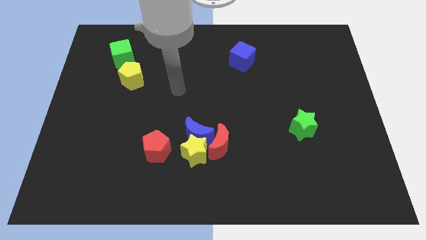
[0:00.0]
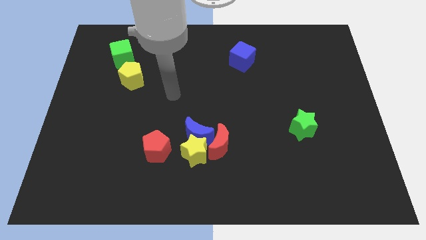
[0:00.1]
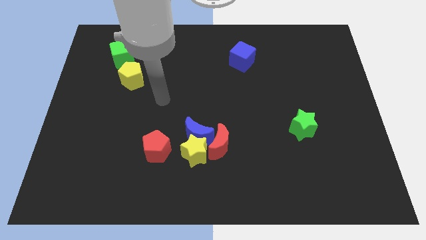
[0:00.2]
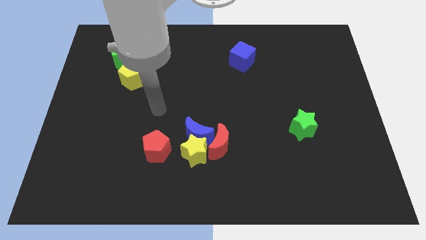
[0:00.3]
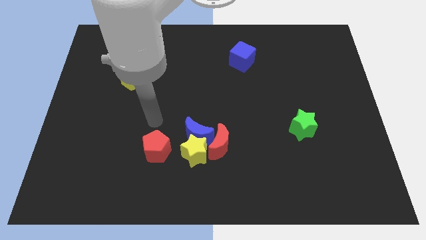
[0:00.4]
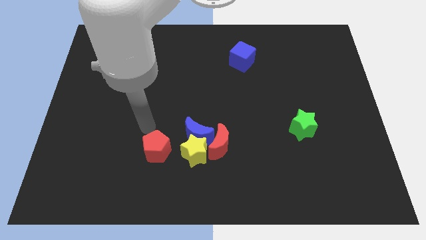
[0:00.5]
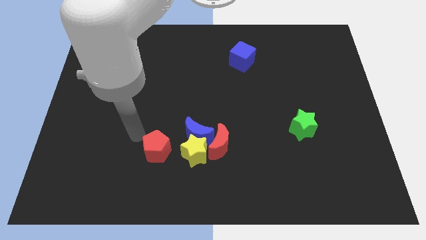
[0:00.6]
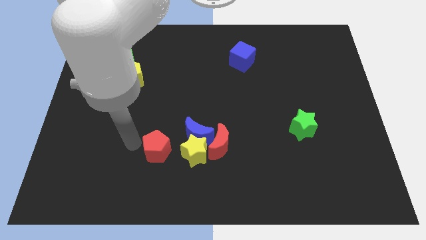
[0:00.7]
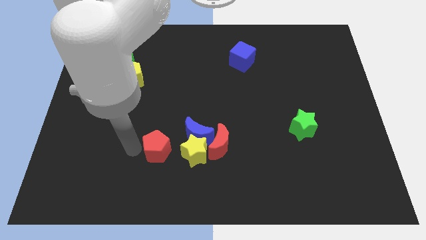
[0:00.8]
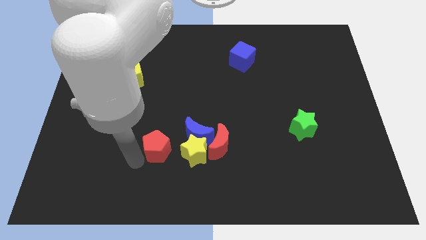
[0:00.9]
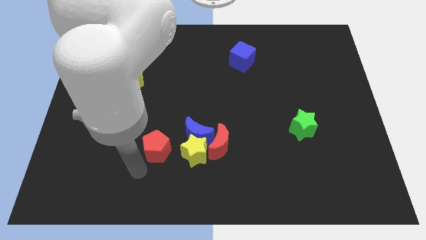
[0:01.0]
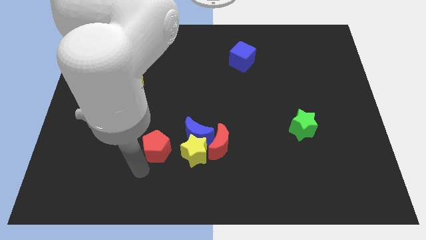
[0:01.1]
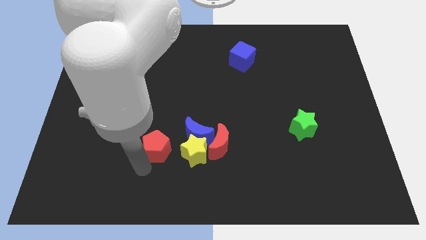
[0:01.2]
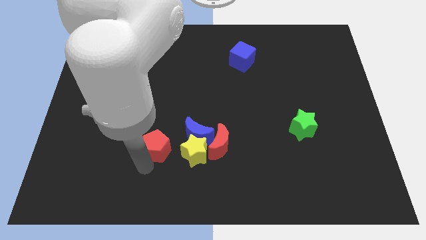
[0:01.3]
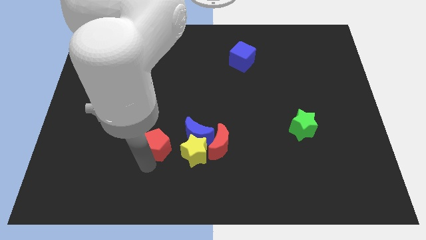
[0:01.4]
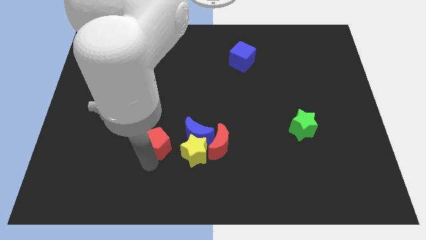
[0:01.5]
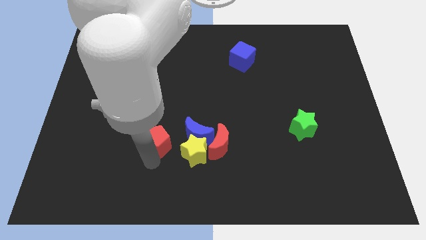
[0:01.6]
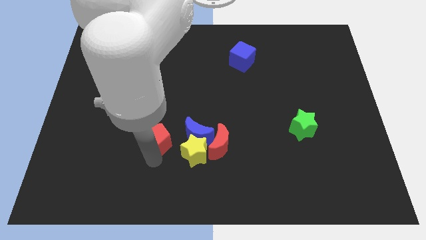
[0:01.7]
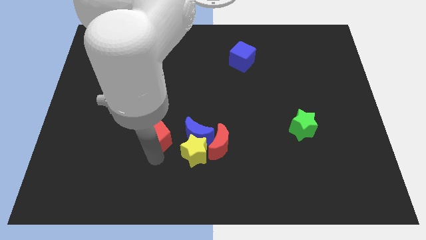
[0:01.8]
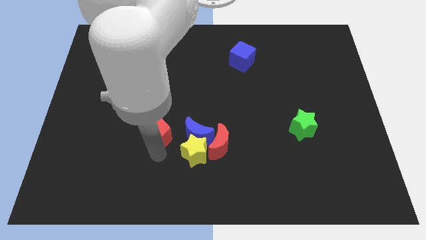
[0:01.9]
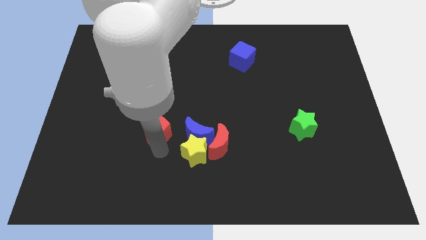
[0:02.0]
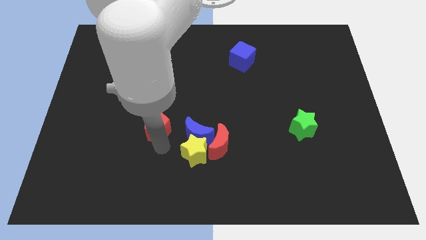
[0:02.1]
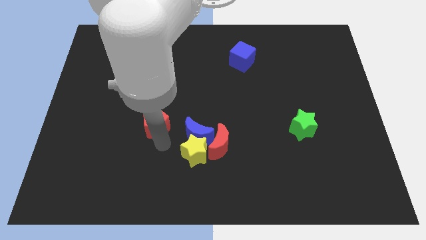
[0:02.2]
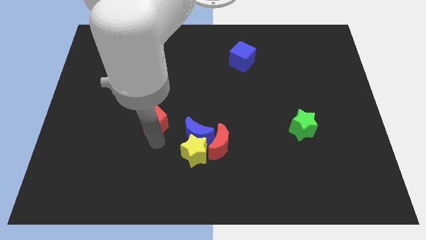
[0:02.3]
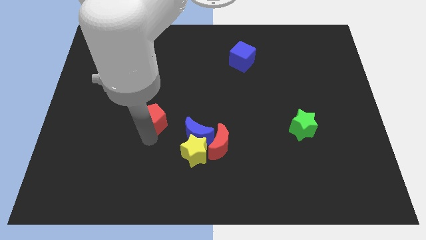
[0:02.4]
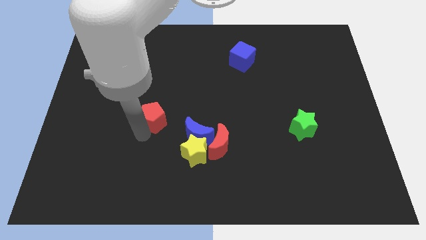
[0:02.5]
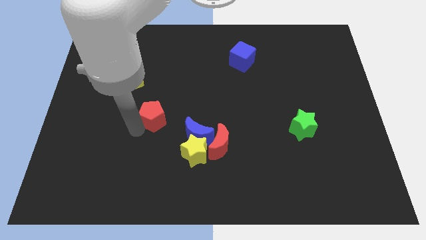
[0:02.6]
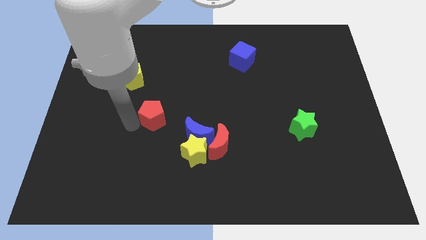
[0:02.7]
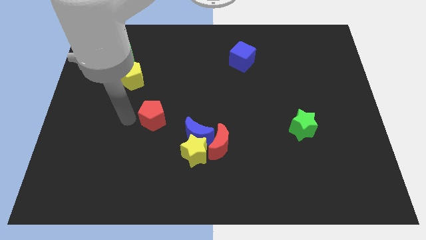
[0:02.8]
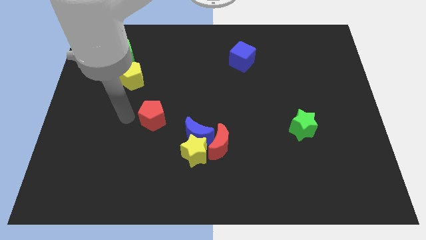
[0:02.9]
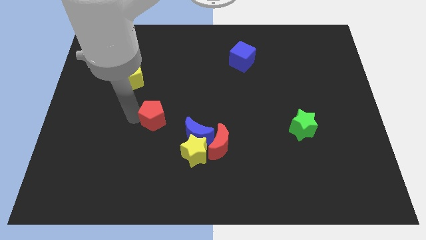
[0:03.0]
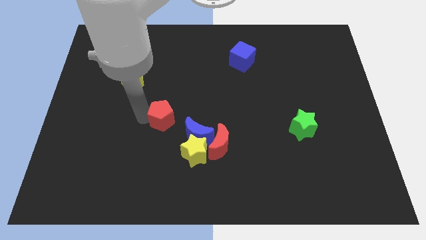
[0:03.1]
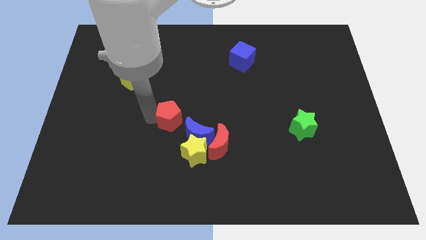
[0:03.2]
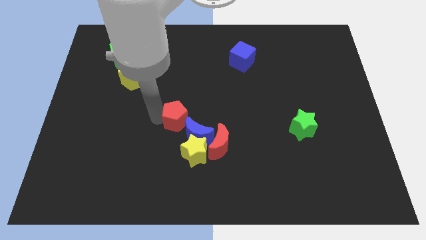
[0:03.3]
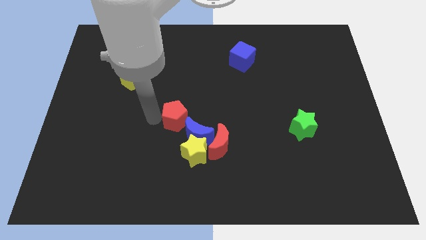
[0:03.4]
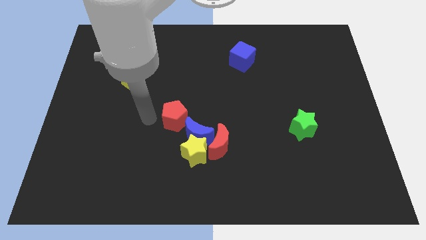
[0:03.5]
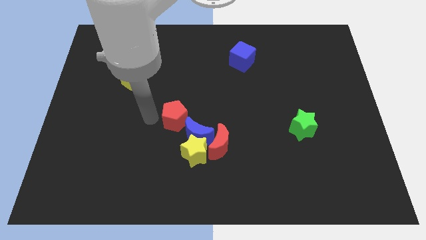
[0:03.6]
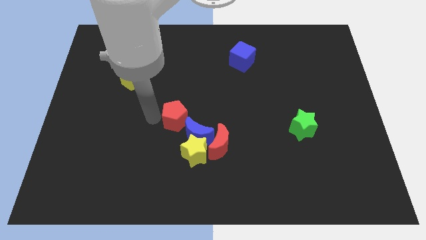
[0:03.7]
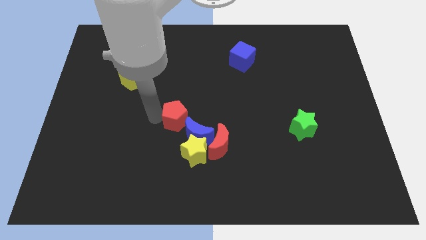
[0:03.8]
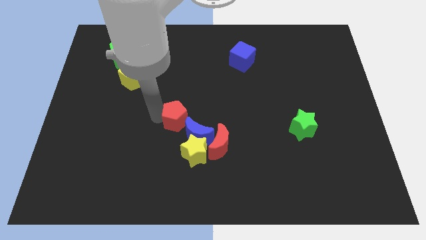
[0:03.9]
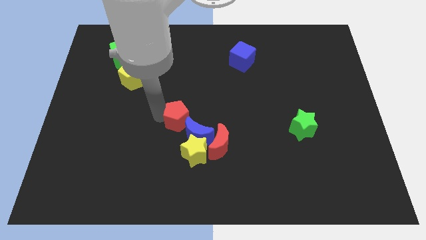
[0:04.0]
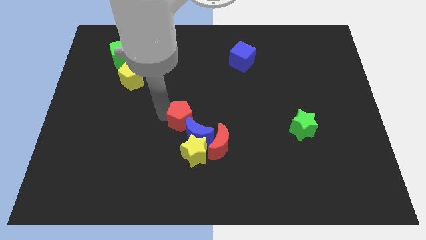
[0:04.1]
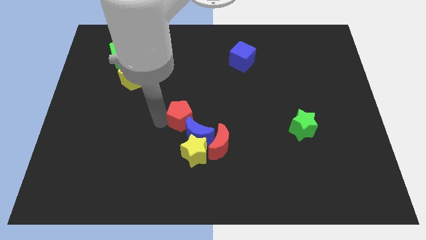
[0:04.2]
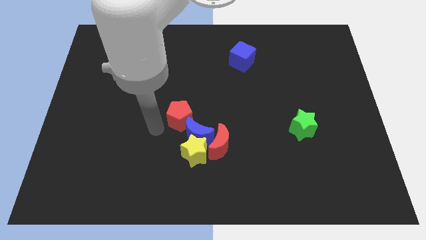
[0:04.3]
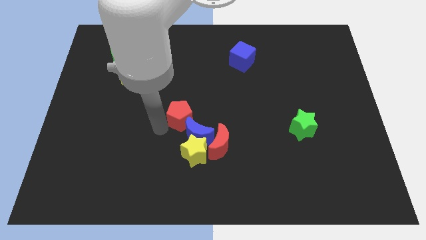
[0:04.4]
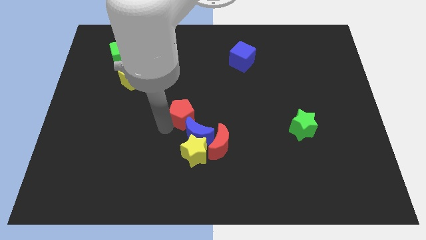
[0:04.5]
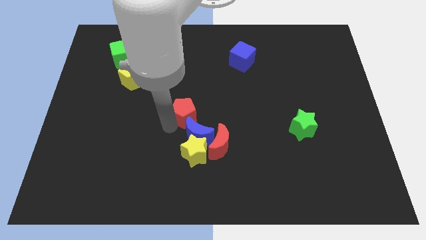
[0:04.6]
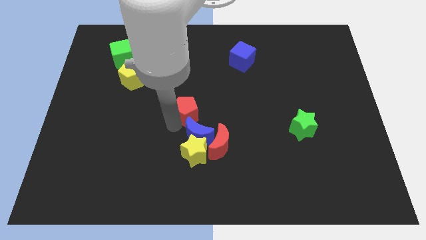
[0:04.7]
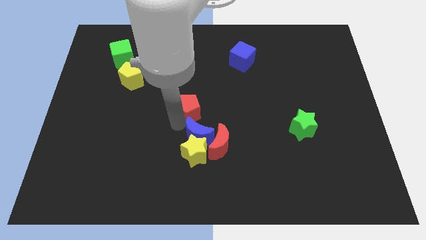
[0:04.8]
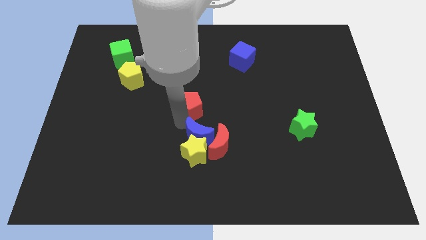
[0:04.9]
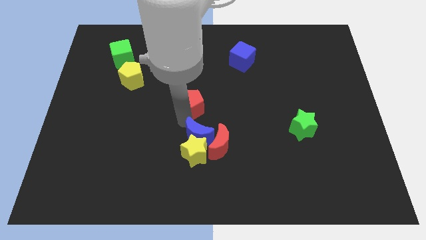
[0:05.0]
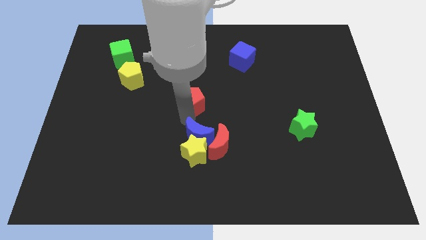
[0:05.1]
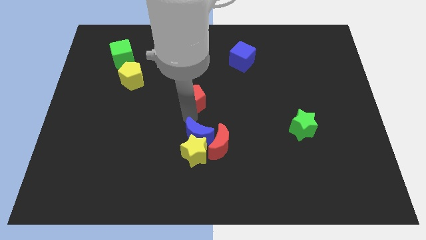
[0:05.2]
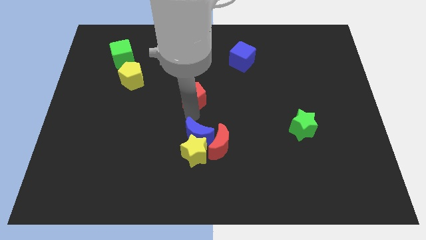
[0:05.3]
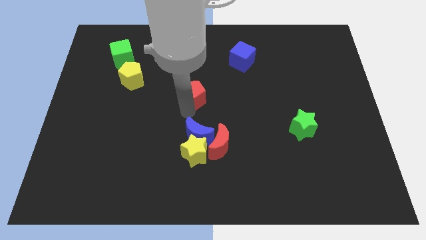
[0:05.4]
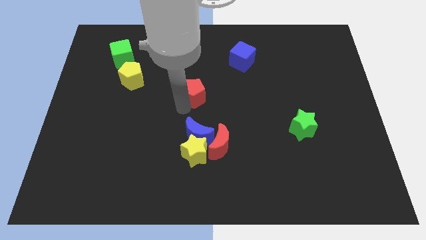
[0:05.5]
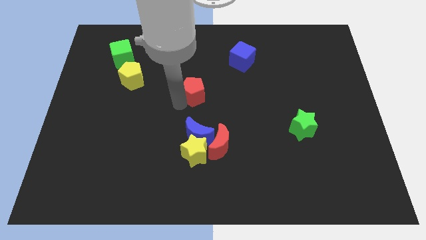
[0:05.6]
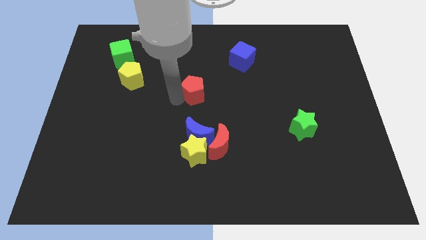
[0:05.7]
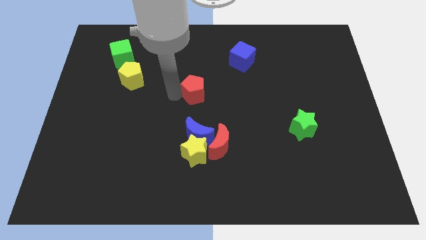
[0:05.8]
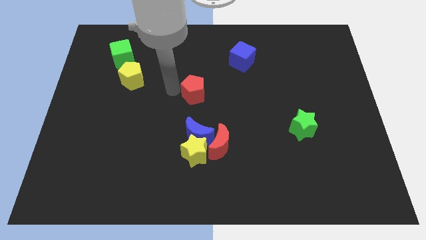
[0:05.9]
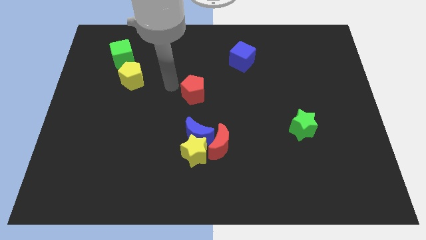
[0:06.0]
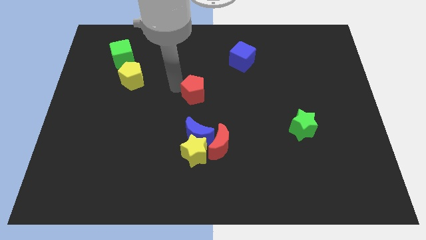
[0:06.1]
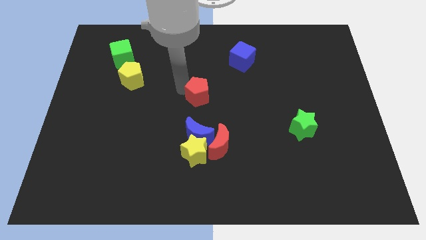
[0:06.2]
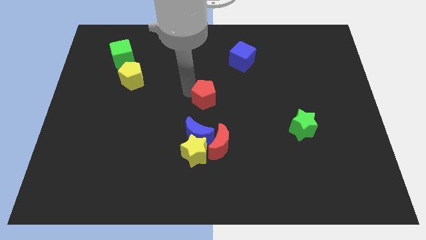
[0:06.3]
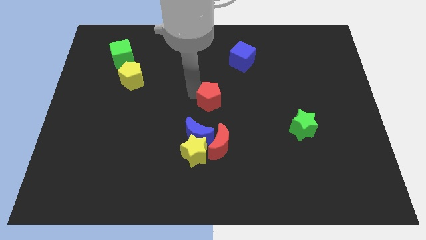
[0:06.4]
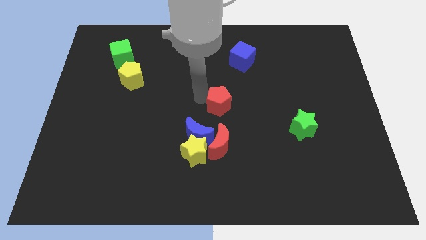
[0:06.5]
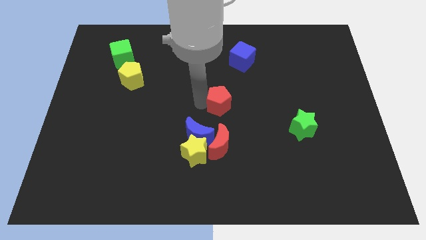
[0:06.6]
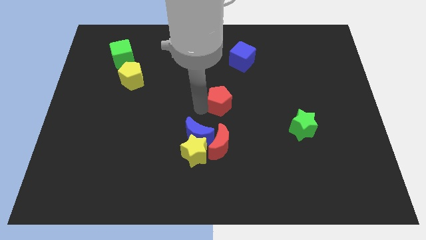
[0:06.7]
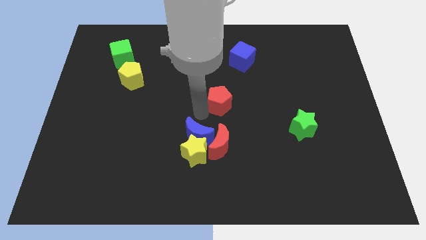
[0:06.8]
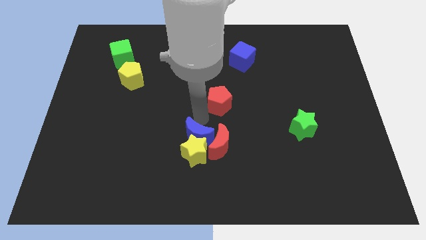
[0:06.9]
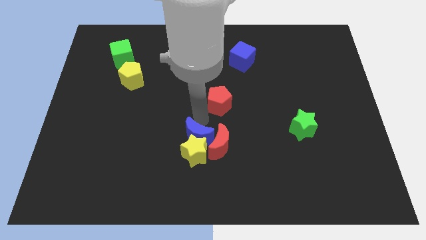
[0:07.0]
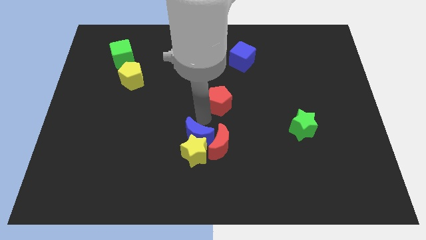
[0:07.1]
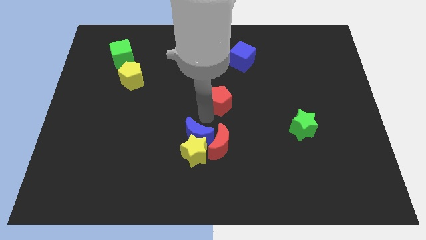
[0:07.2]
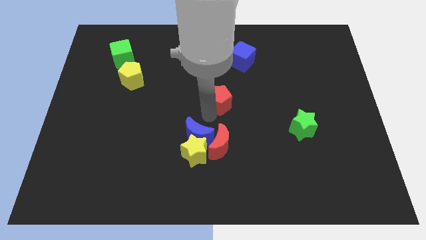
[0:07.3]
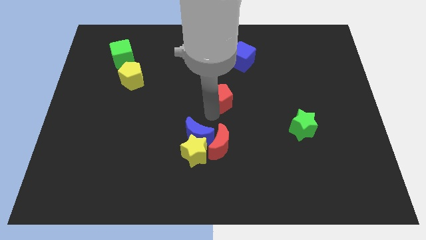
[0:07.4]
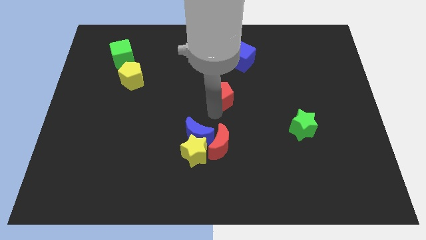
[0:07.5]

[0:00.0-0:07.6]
slide the red pentagon upwards and then to the right

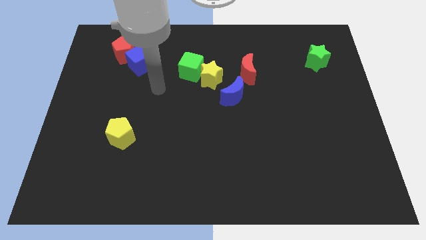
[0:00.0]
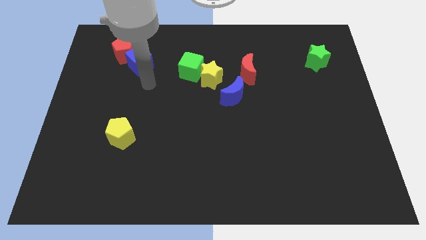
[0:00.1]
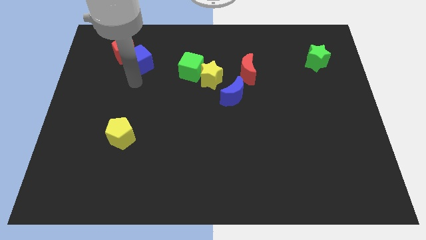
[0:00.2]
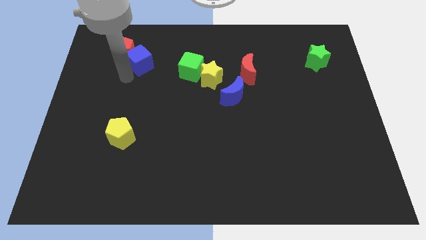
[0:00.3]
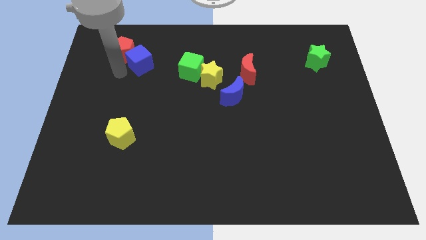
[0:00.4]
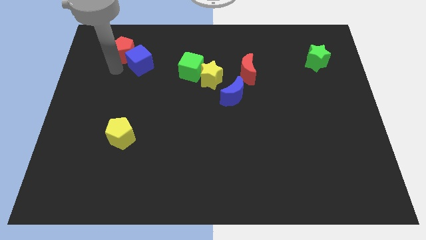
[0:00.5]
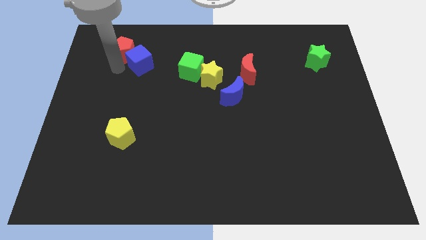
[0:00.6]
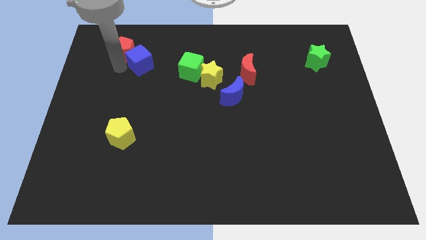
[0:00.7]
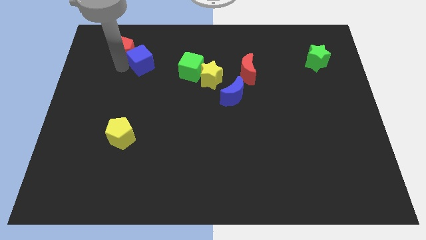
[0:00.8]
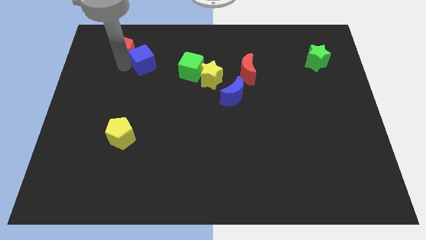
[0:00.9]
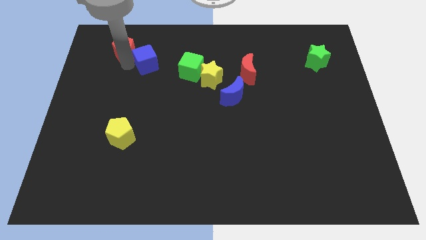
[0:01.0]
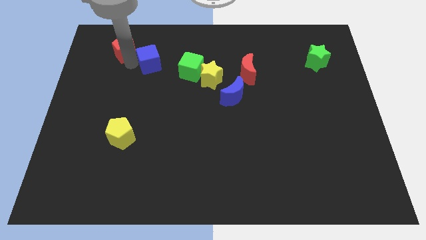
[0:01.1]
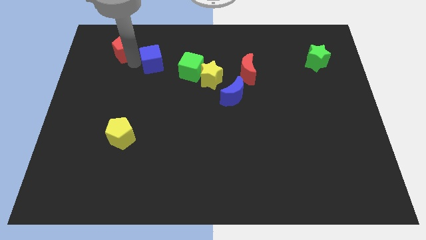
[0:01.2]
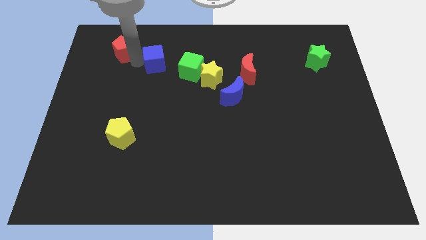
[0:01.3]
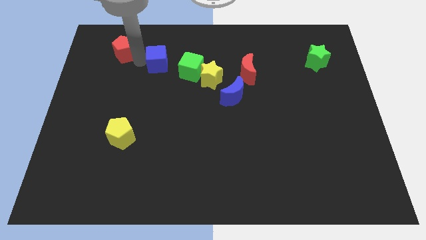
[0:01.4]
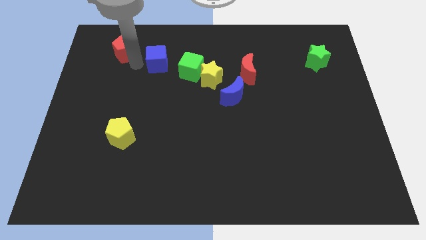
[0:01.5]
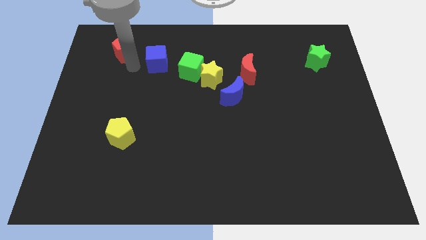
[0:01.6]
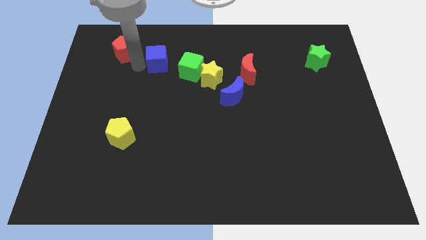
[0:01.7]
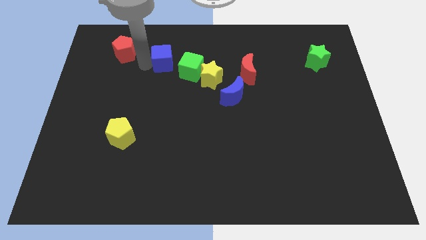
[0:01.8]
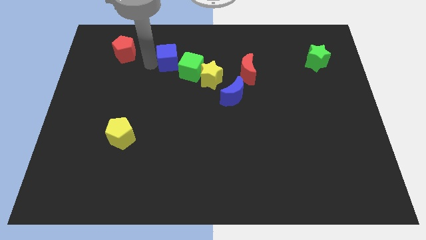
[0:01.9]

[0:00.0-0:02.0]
move the blue cube right a little
